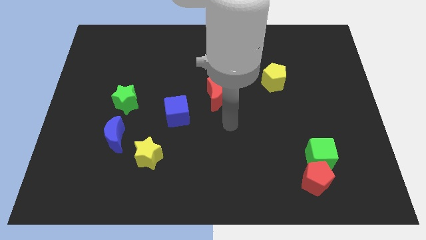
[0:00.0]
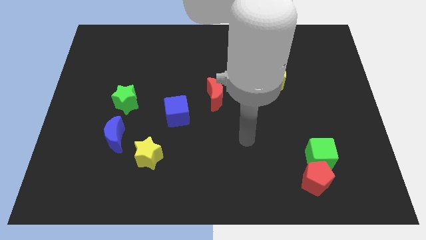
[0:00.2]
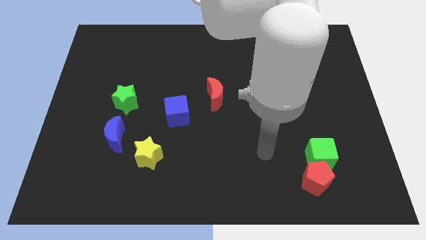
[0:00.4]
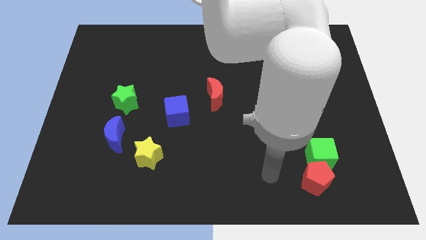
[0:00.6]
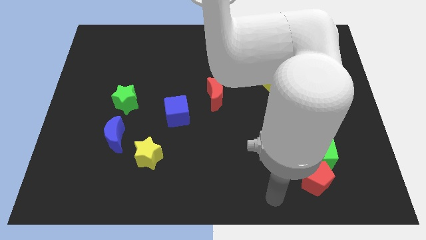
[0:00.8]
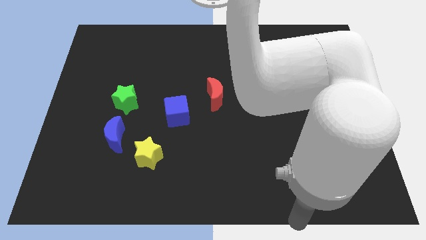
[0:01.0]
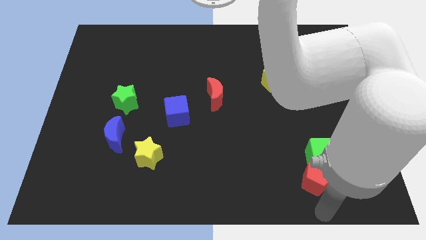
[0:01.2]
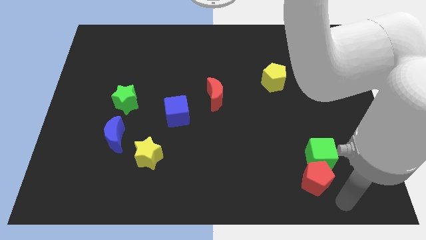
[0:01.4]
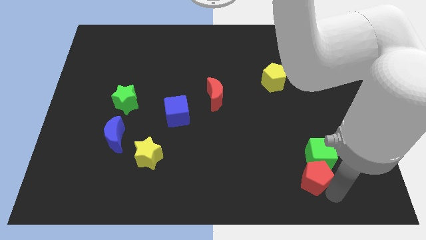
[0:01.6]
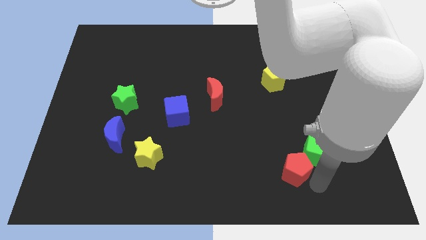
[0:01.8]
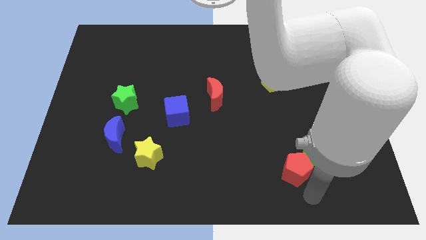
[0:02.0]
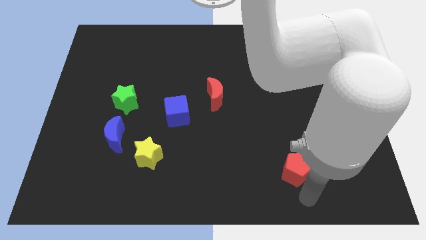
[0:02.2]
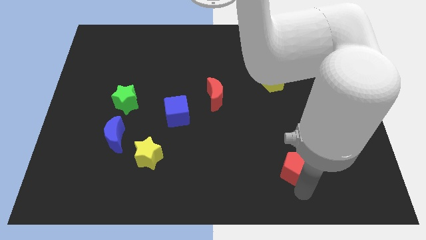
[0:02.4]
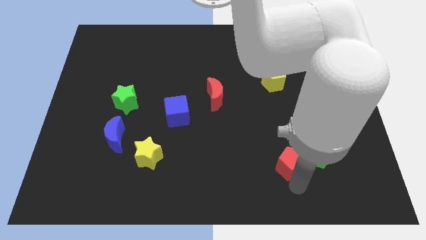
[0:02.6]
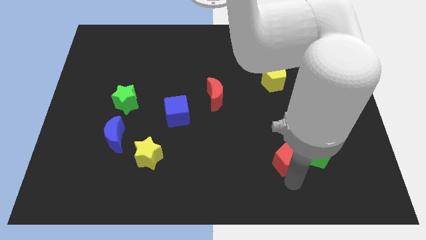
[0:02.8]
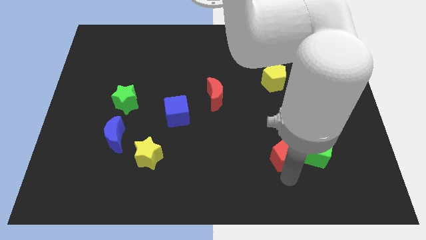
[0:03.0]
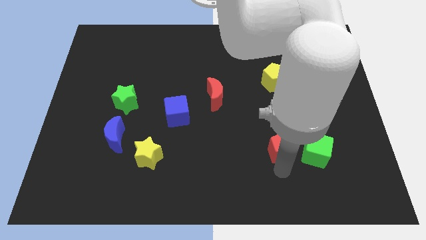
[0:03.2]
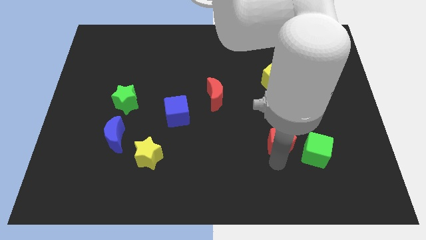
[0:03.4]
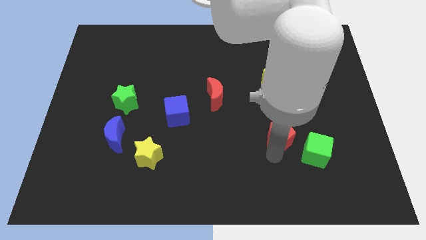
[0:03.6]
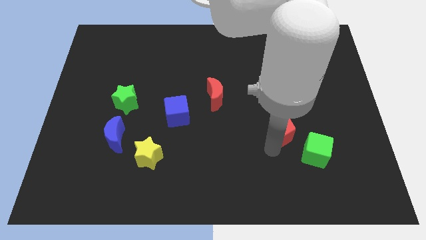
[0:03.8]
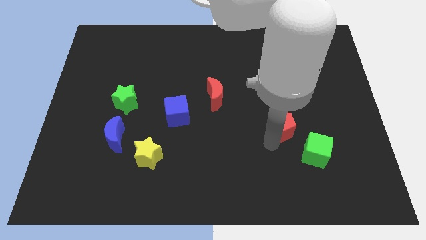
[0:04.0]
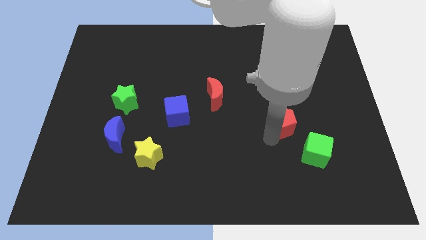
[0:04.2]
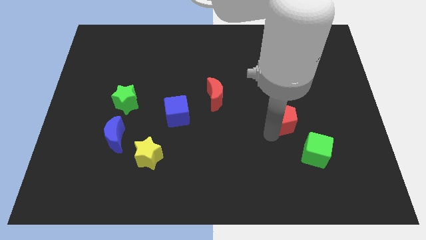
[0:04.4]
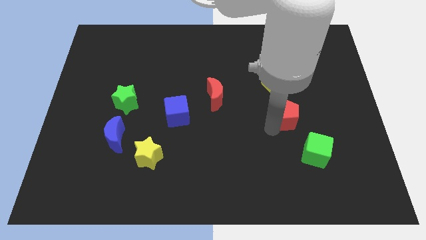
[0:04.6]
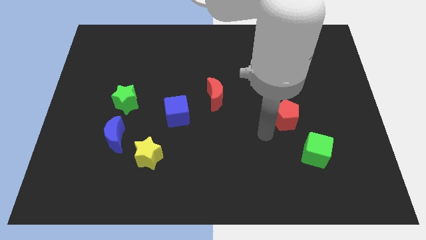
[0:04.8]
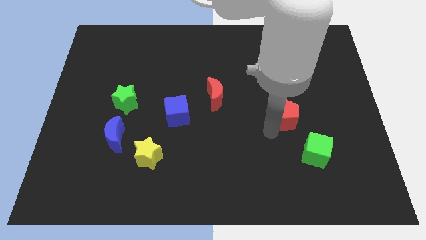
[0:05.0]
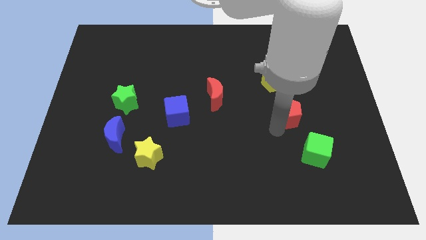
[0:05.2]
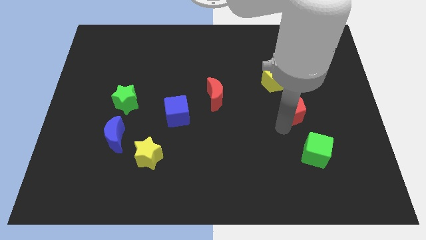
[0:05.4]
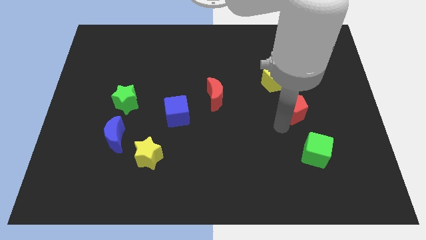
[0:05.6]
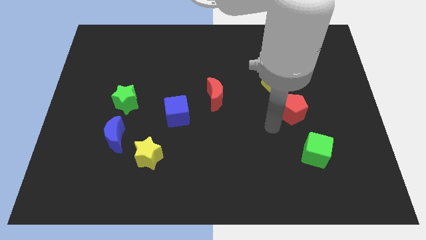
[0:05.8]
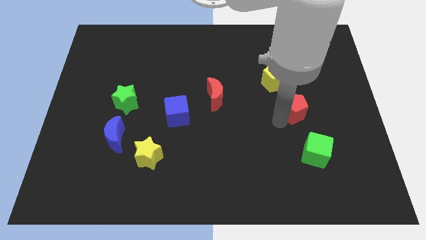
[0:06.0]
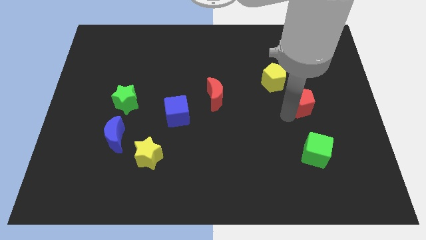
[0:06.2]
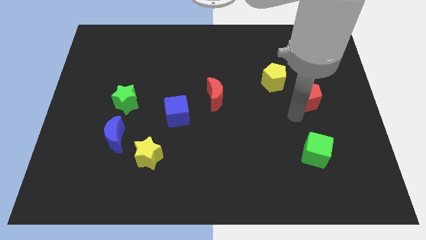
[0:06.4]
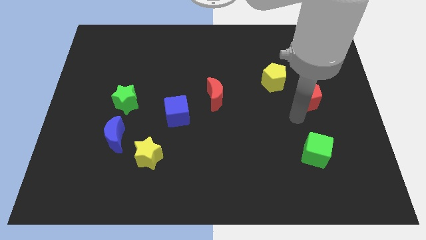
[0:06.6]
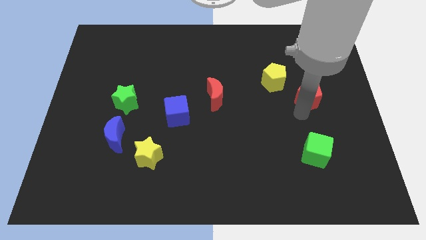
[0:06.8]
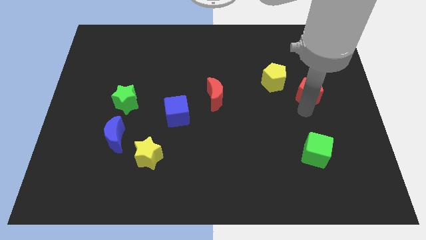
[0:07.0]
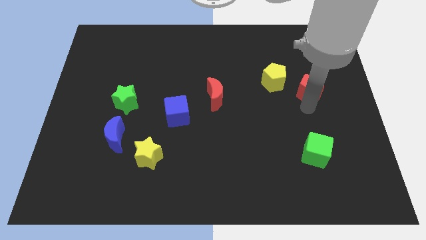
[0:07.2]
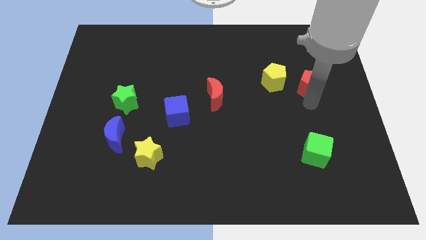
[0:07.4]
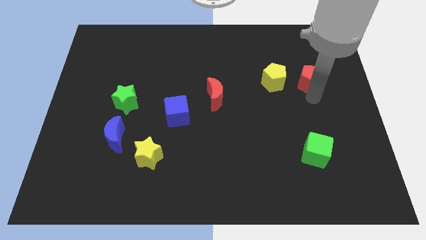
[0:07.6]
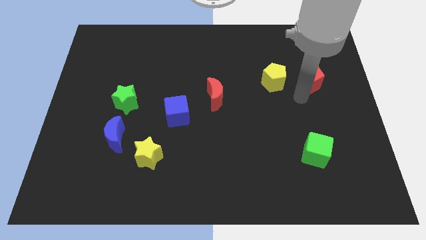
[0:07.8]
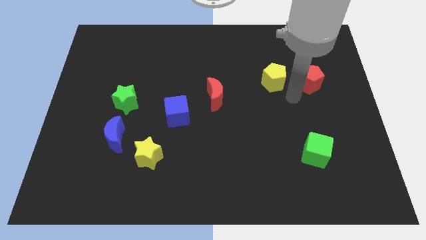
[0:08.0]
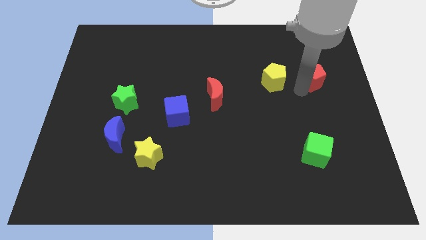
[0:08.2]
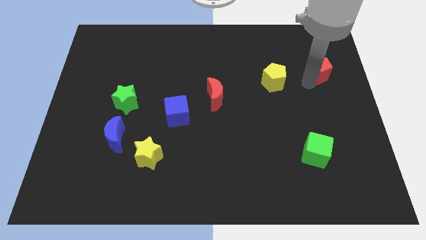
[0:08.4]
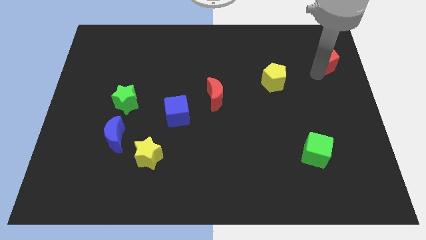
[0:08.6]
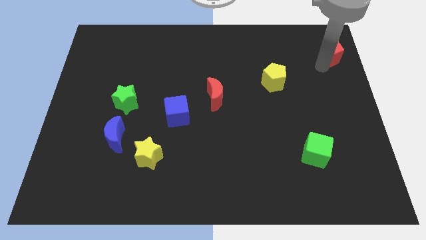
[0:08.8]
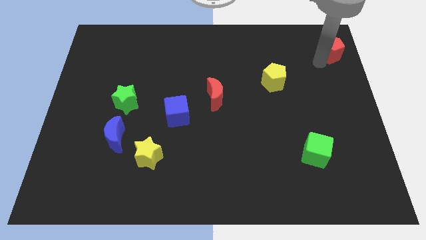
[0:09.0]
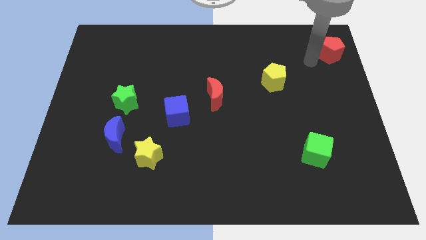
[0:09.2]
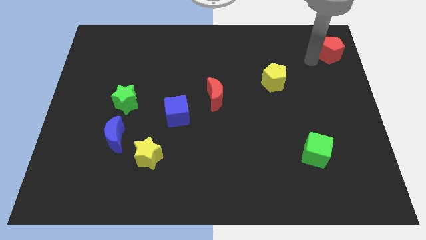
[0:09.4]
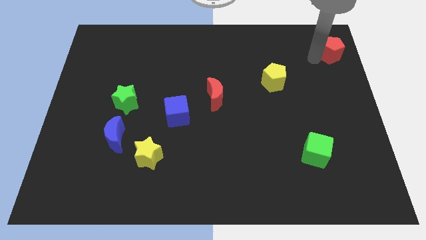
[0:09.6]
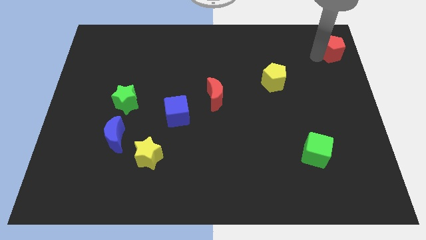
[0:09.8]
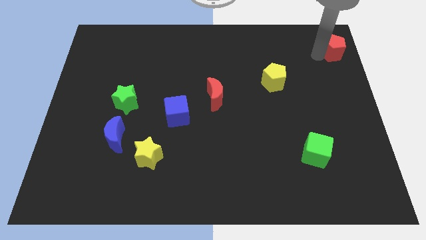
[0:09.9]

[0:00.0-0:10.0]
slide the red pentagon to the top right corner

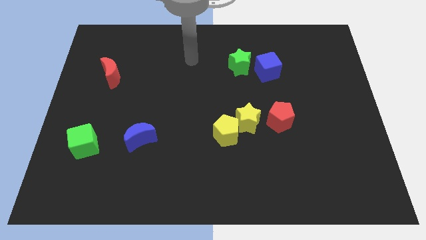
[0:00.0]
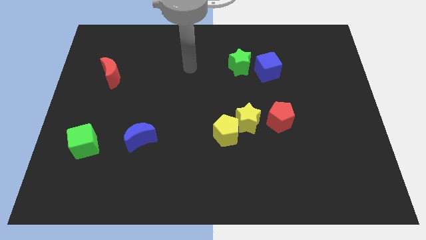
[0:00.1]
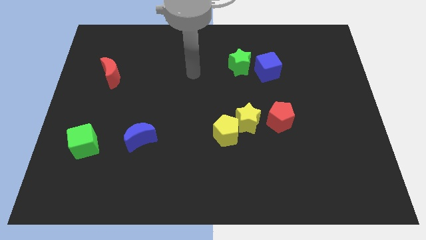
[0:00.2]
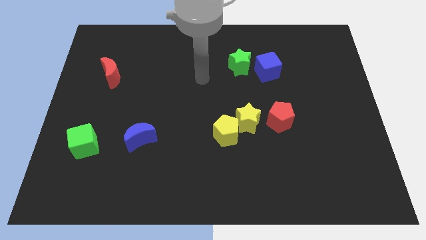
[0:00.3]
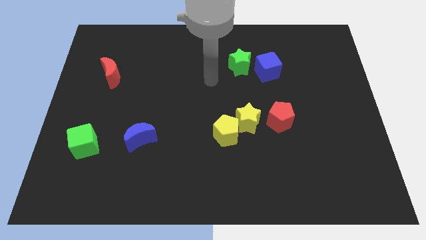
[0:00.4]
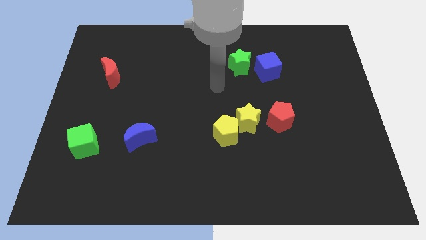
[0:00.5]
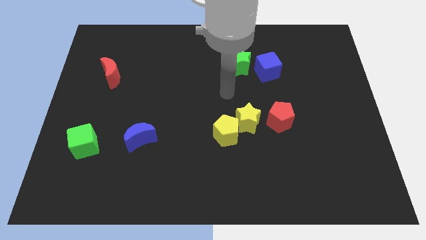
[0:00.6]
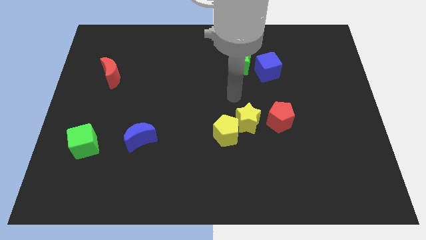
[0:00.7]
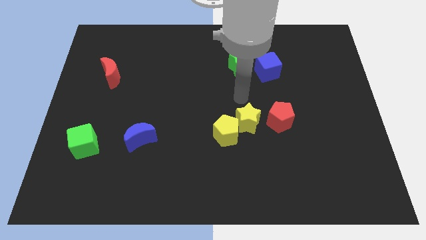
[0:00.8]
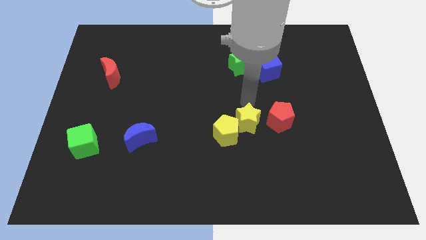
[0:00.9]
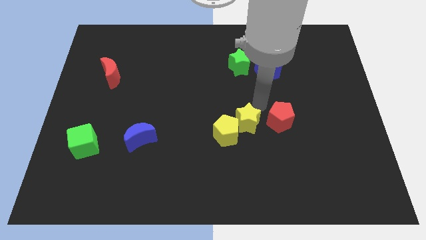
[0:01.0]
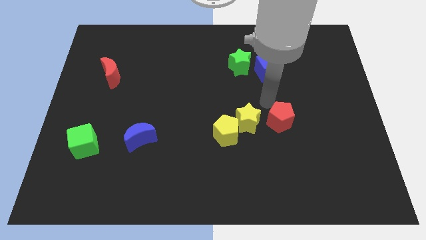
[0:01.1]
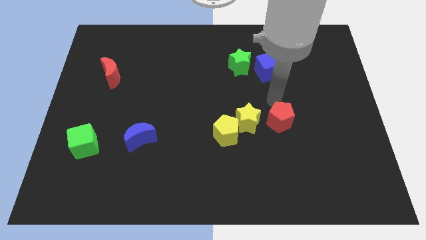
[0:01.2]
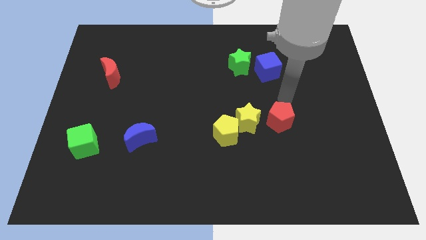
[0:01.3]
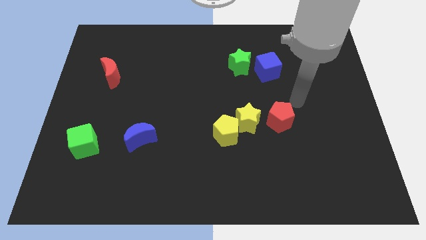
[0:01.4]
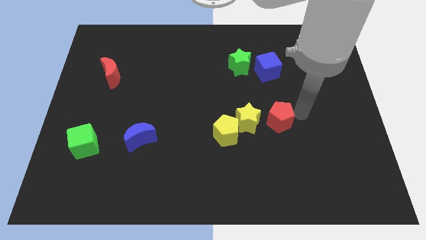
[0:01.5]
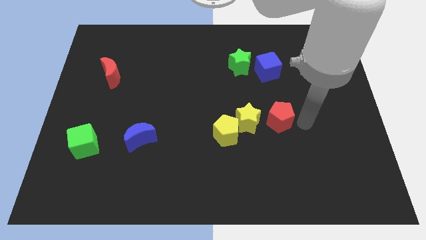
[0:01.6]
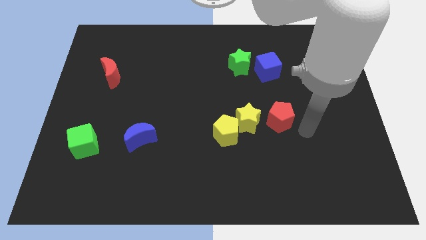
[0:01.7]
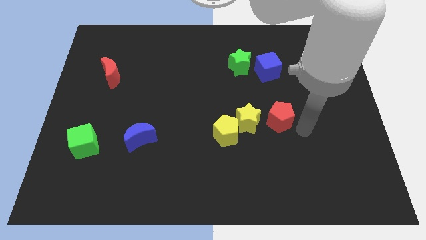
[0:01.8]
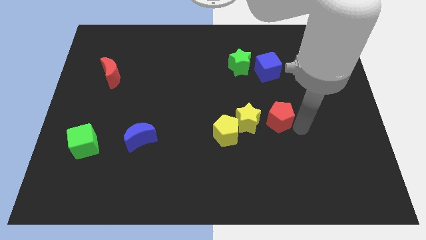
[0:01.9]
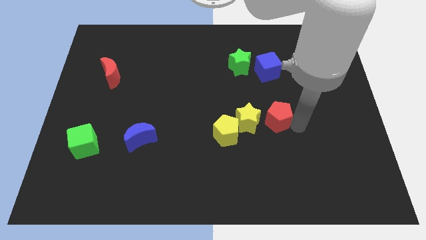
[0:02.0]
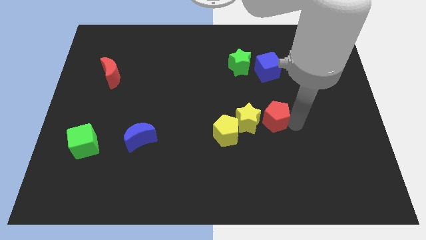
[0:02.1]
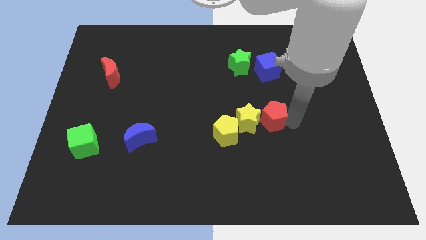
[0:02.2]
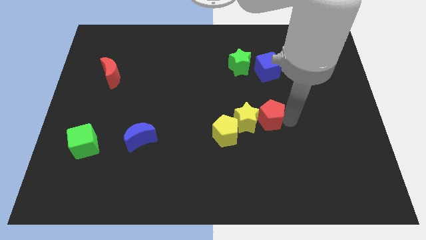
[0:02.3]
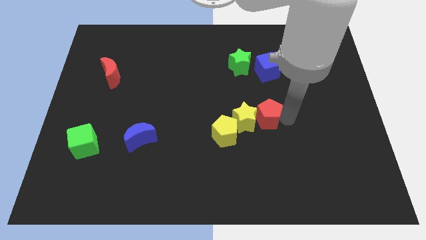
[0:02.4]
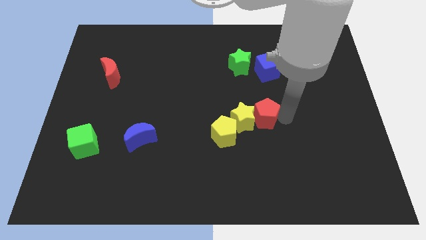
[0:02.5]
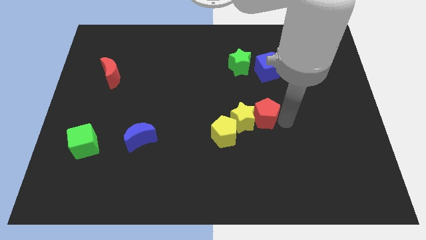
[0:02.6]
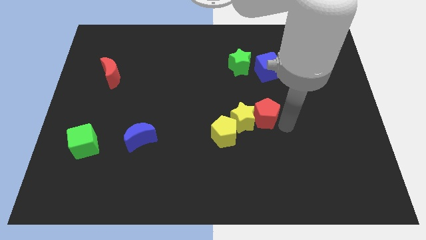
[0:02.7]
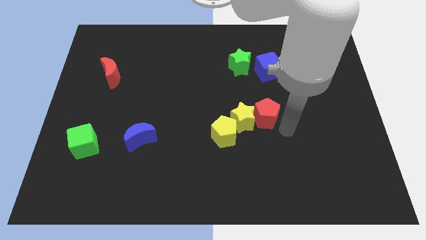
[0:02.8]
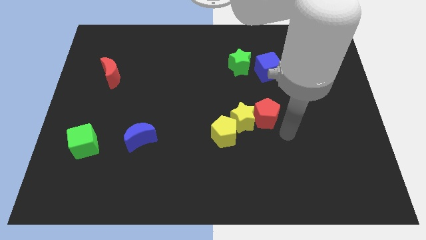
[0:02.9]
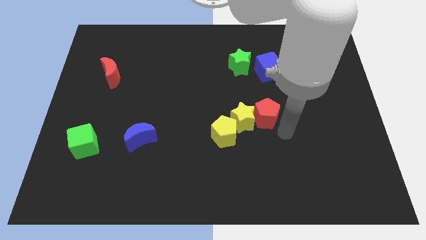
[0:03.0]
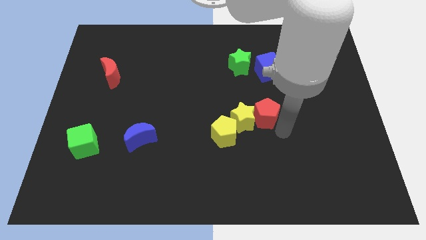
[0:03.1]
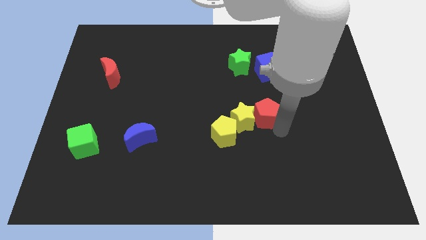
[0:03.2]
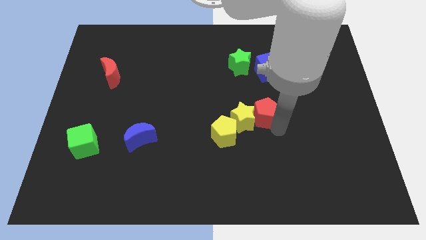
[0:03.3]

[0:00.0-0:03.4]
move the red pentagon to the middle
